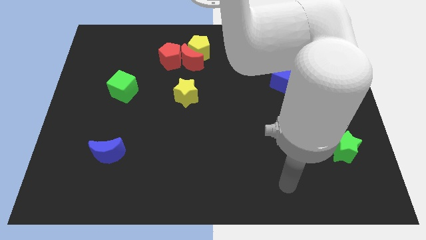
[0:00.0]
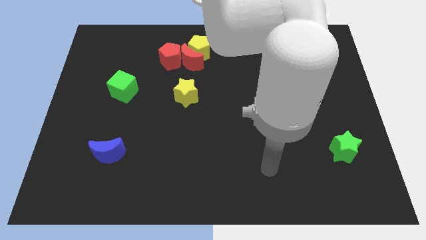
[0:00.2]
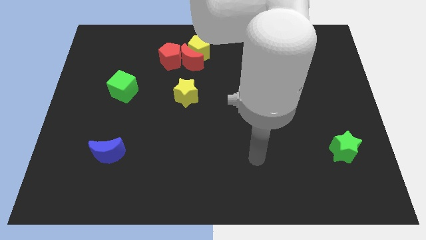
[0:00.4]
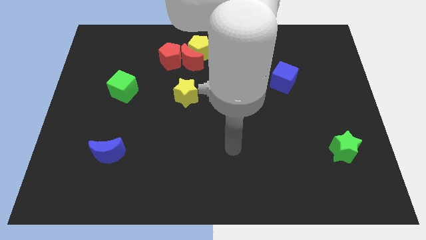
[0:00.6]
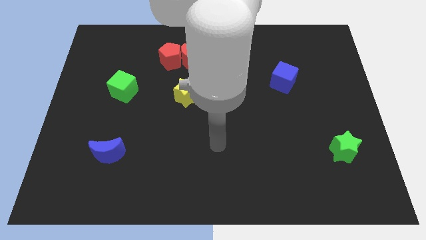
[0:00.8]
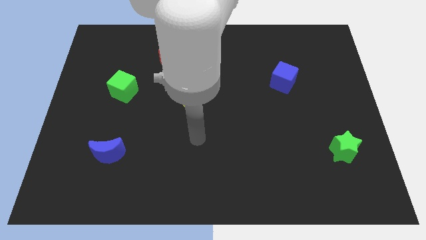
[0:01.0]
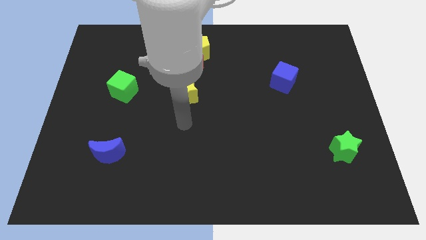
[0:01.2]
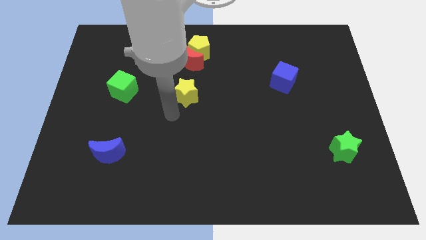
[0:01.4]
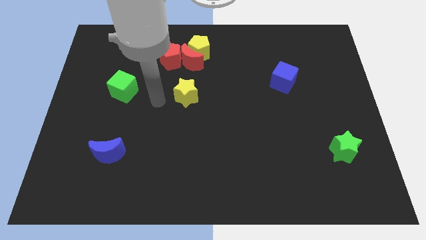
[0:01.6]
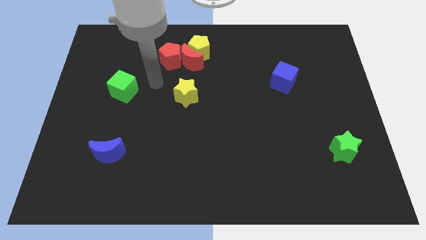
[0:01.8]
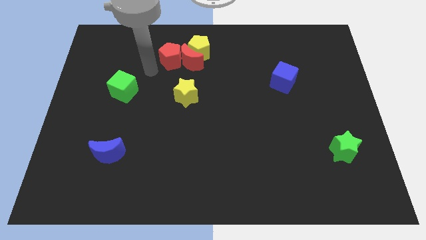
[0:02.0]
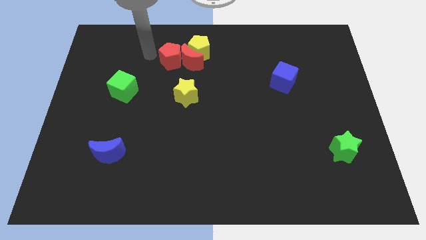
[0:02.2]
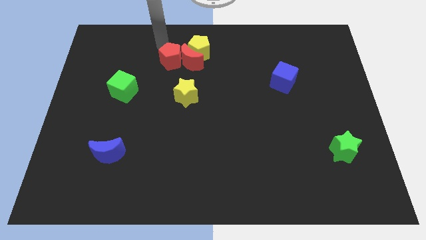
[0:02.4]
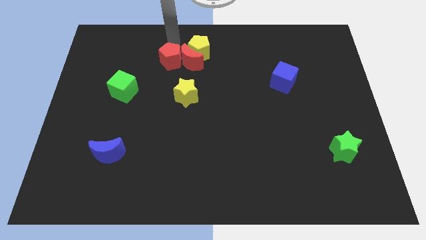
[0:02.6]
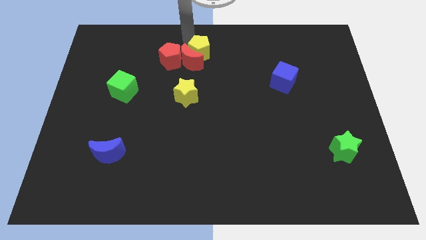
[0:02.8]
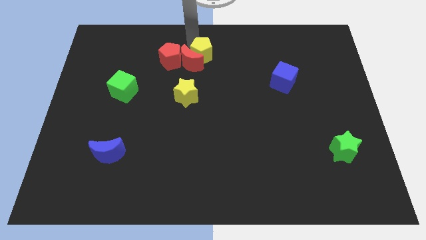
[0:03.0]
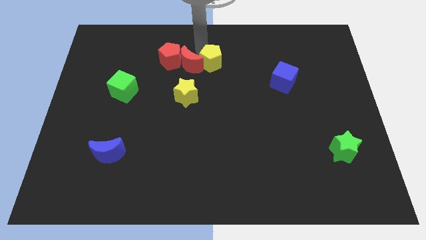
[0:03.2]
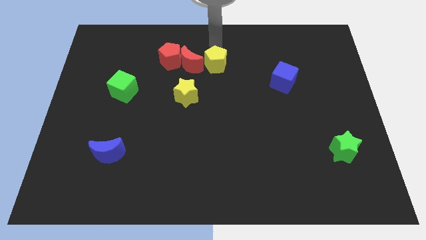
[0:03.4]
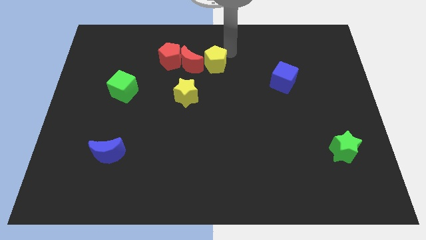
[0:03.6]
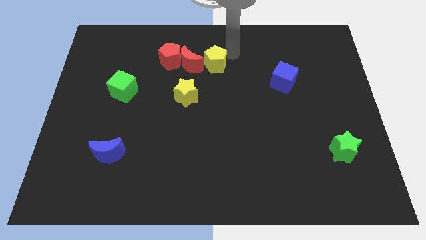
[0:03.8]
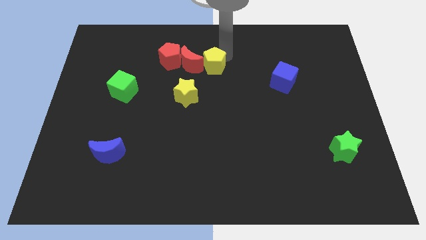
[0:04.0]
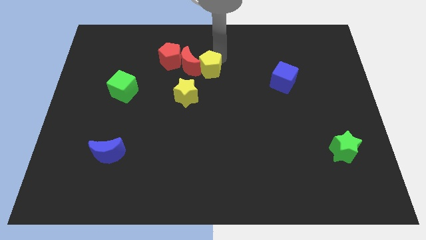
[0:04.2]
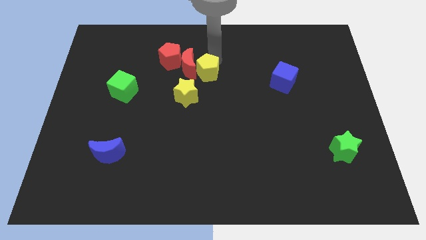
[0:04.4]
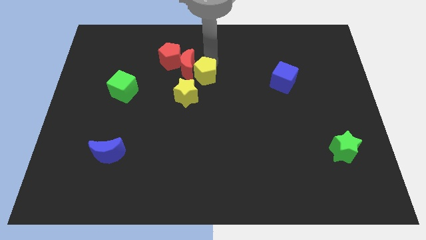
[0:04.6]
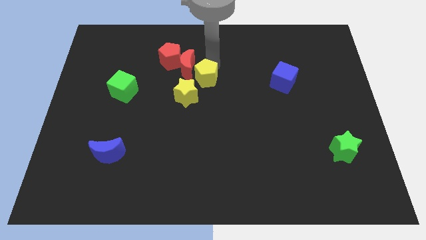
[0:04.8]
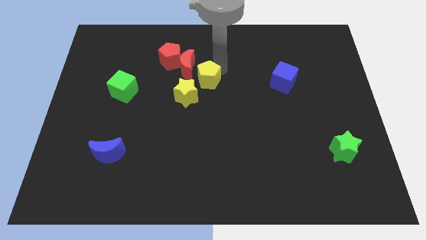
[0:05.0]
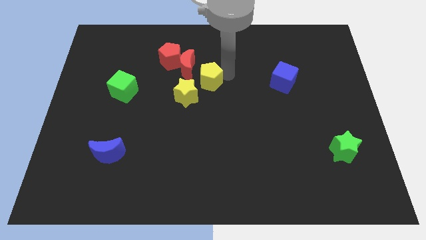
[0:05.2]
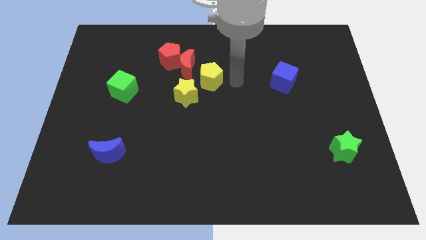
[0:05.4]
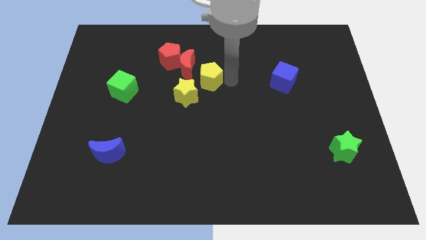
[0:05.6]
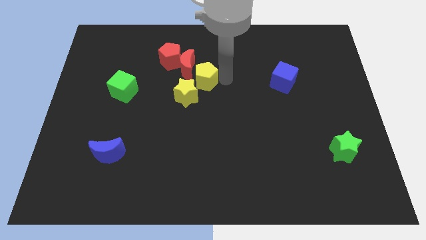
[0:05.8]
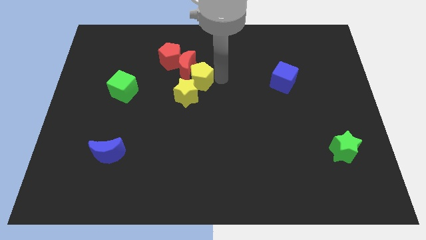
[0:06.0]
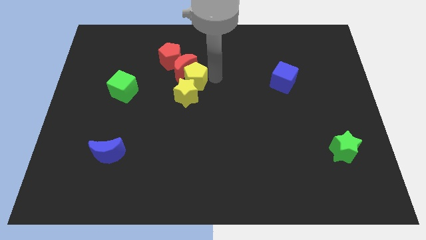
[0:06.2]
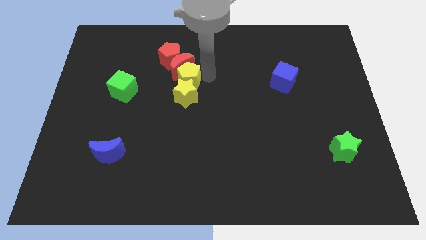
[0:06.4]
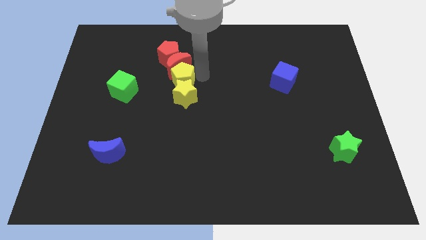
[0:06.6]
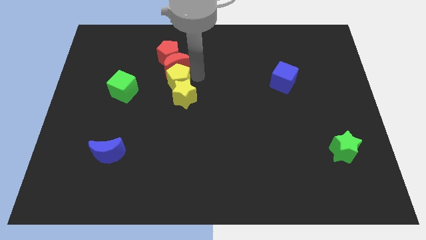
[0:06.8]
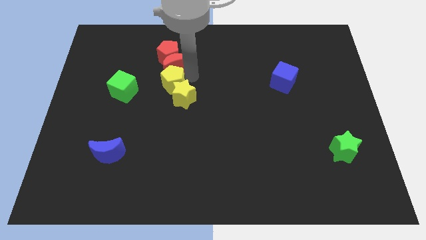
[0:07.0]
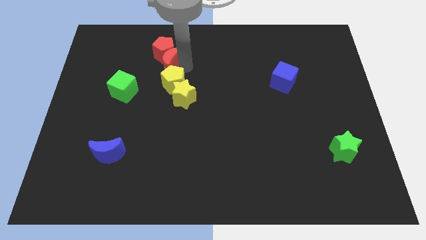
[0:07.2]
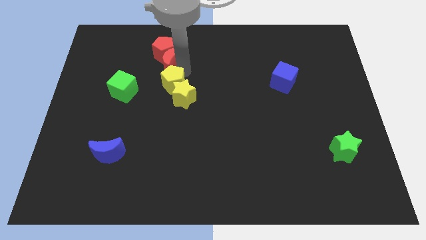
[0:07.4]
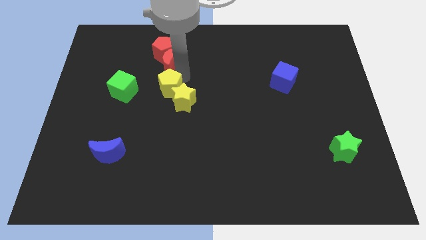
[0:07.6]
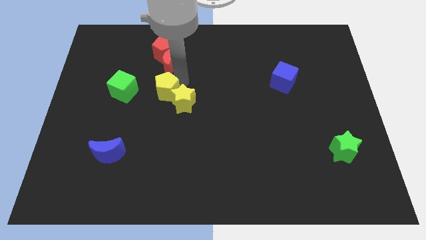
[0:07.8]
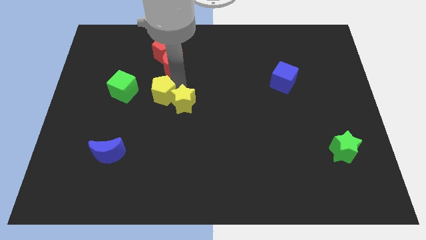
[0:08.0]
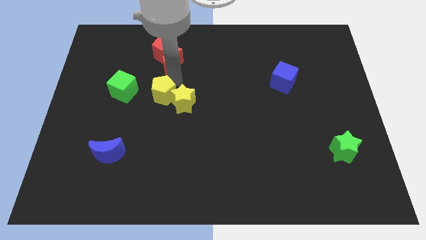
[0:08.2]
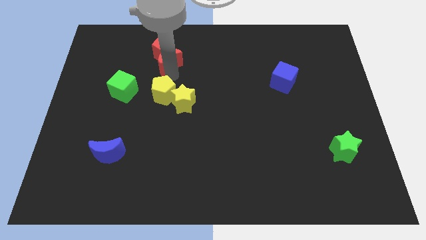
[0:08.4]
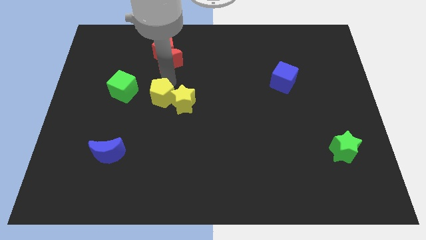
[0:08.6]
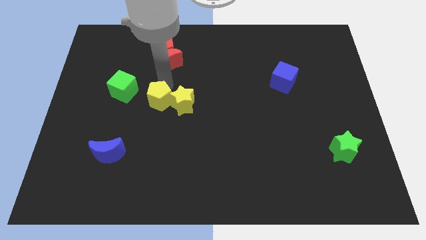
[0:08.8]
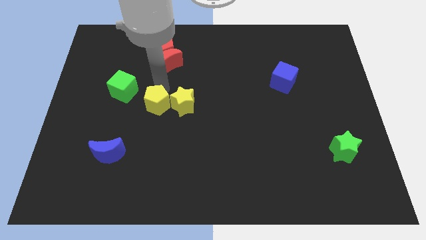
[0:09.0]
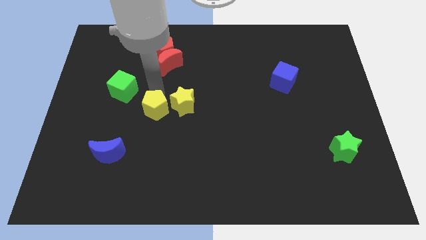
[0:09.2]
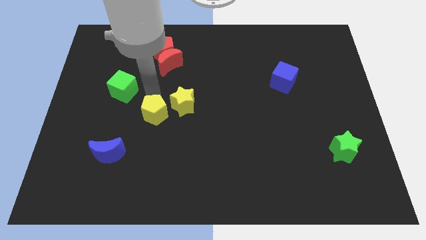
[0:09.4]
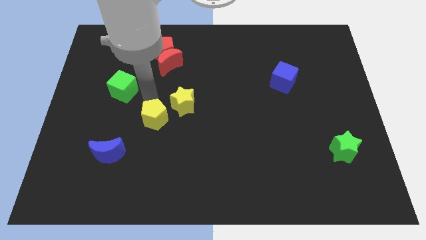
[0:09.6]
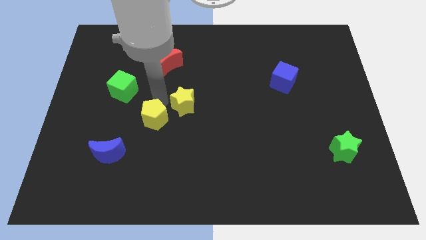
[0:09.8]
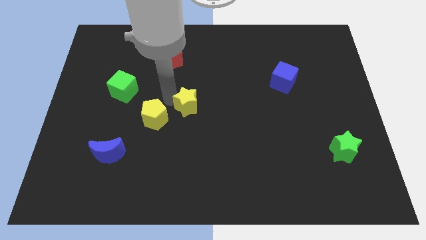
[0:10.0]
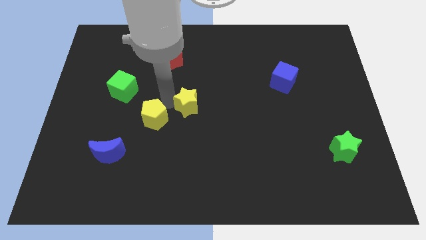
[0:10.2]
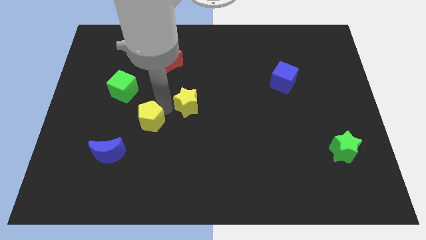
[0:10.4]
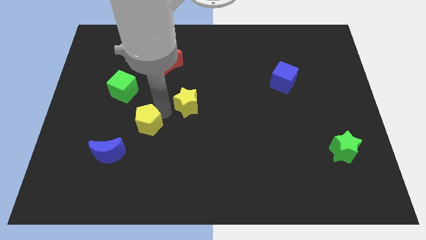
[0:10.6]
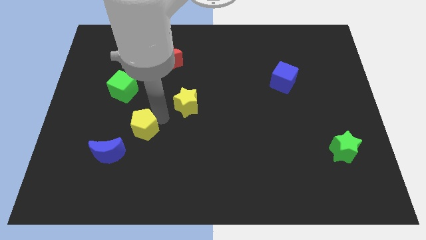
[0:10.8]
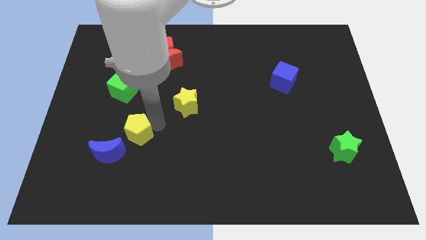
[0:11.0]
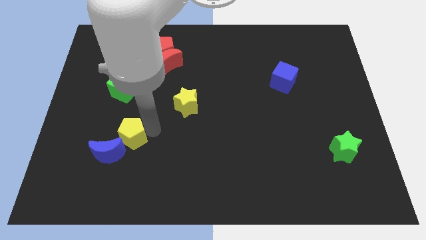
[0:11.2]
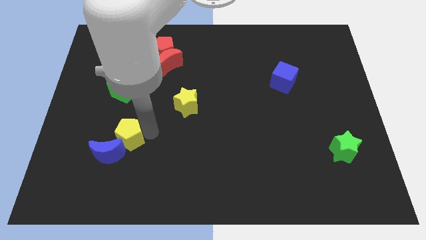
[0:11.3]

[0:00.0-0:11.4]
move the yellow pentagon close to the blue moon

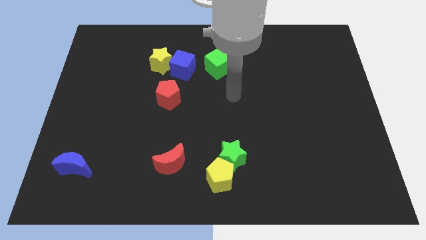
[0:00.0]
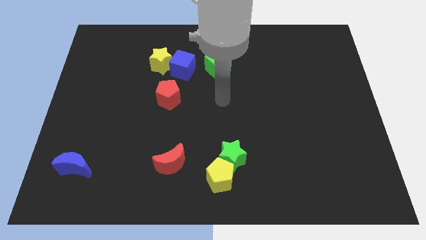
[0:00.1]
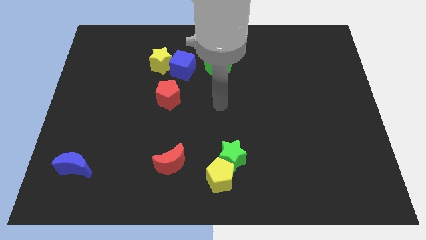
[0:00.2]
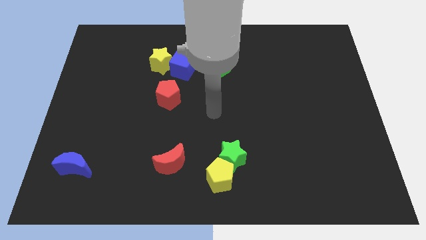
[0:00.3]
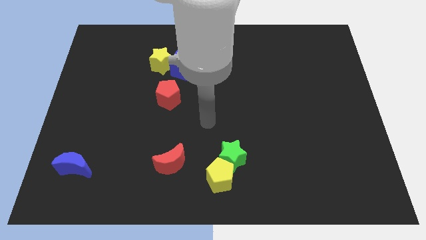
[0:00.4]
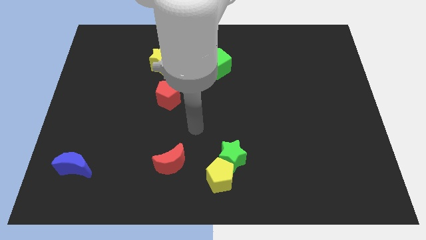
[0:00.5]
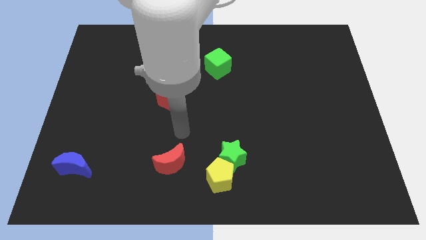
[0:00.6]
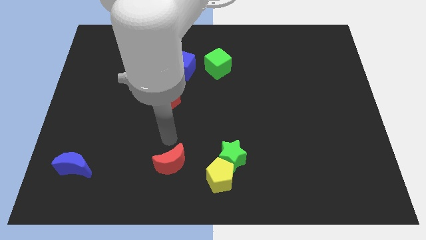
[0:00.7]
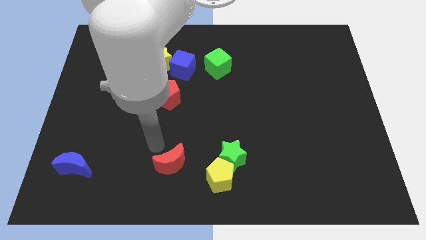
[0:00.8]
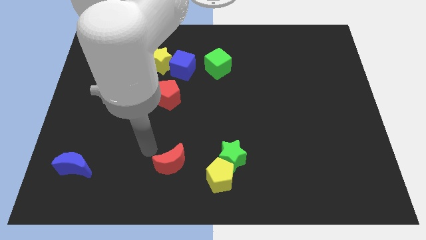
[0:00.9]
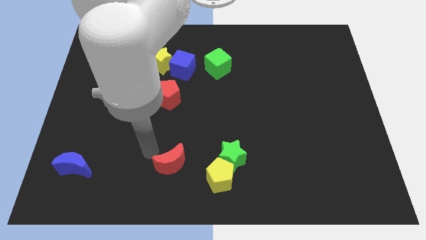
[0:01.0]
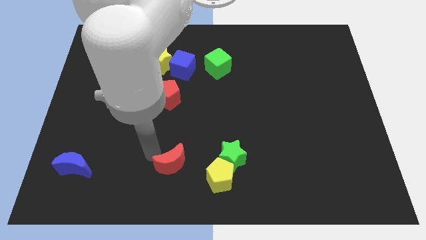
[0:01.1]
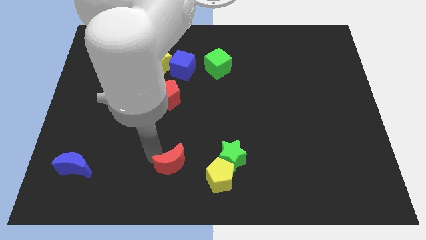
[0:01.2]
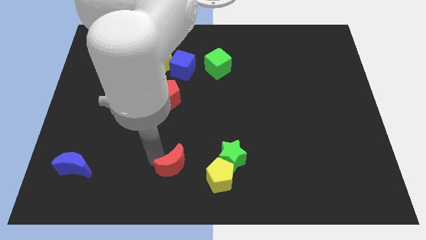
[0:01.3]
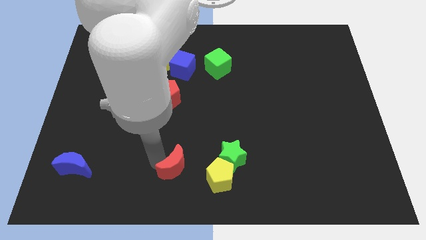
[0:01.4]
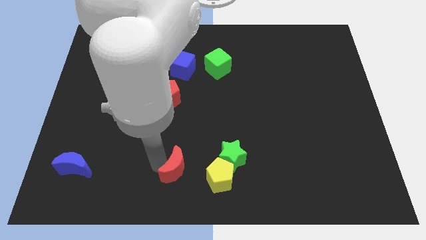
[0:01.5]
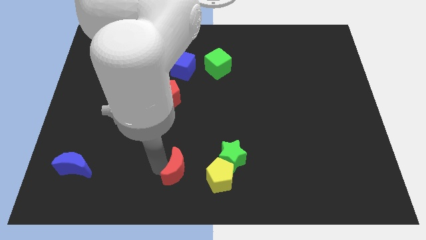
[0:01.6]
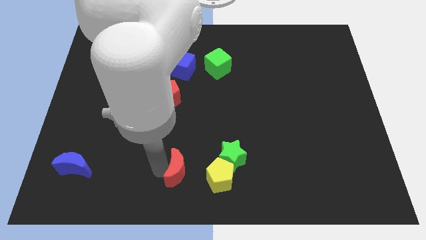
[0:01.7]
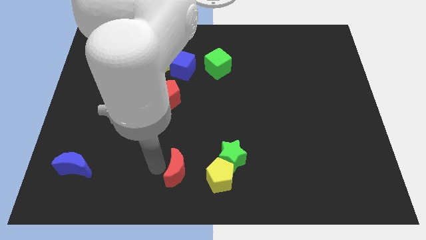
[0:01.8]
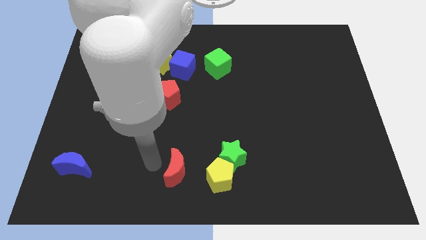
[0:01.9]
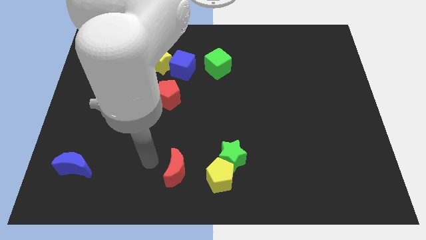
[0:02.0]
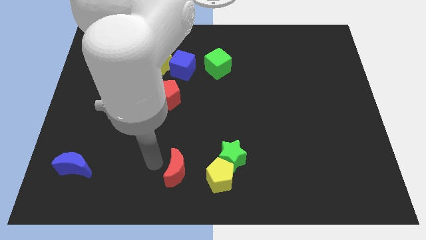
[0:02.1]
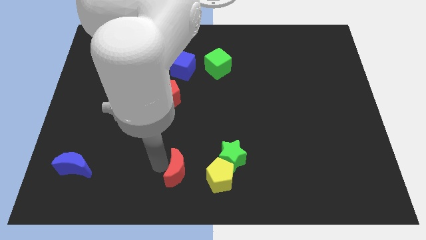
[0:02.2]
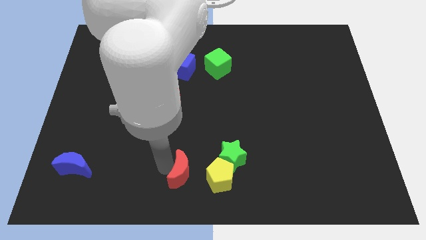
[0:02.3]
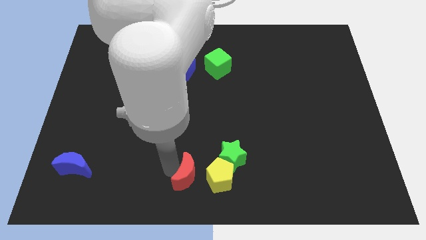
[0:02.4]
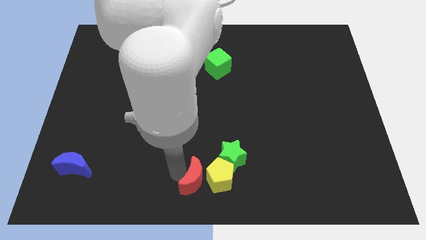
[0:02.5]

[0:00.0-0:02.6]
push the red moon to the yellow pentagon
